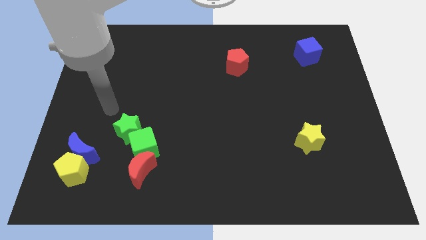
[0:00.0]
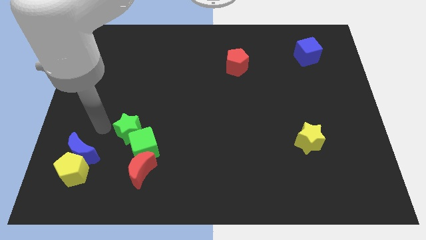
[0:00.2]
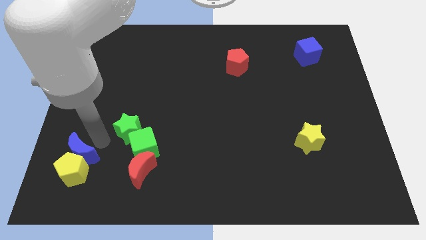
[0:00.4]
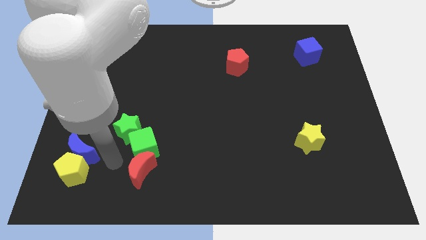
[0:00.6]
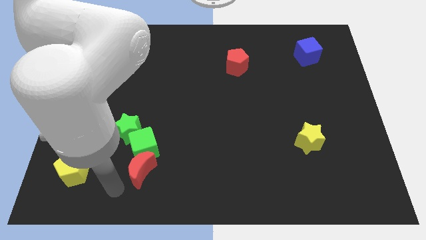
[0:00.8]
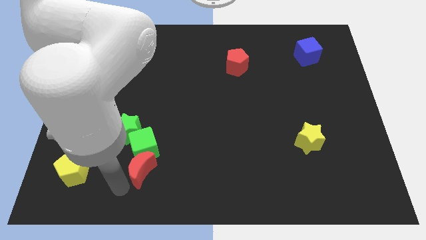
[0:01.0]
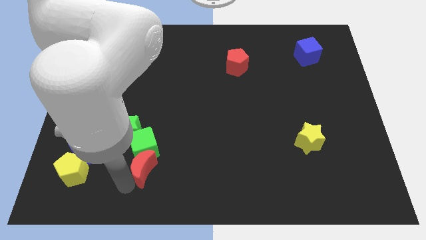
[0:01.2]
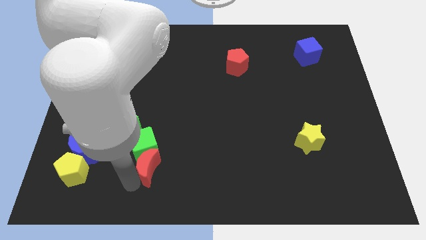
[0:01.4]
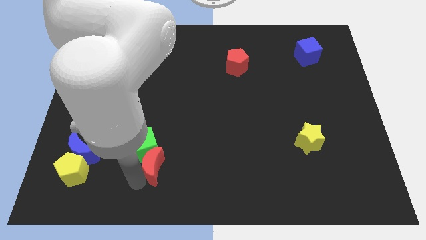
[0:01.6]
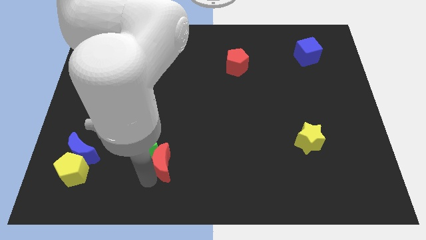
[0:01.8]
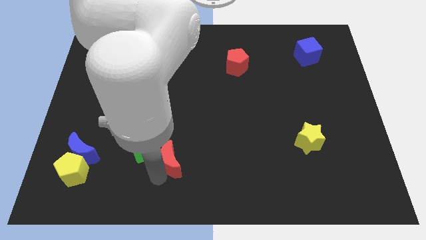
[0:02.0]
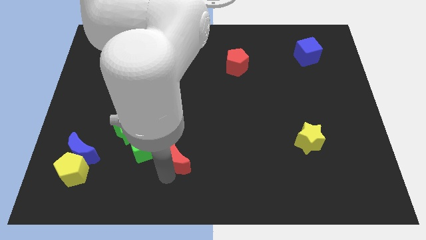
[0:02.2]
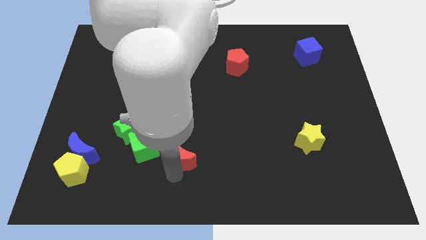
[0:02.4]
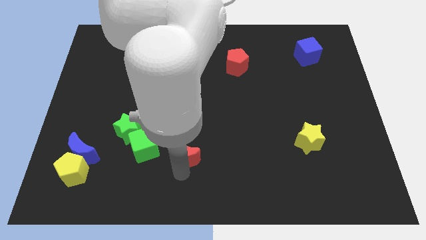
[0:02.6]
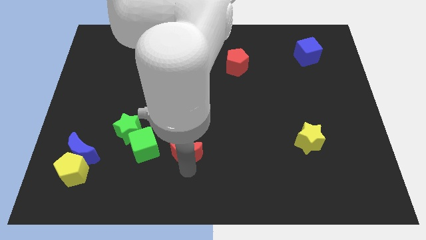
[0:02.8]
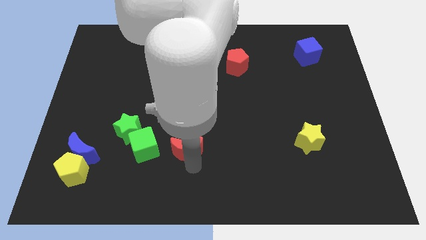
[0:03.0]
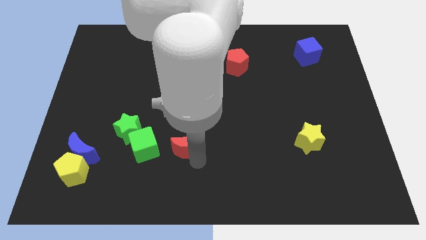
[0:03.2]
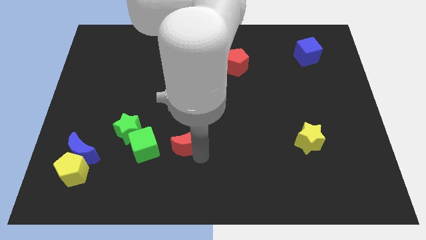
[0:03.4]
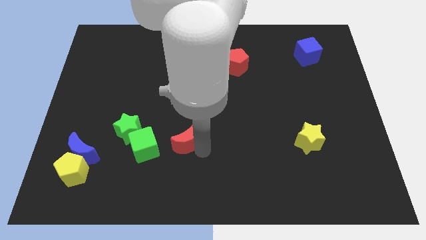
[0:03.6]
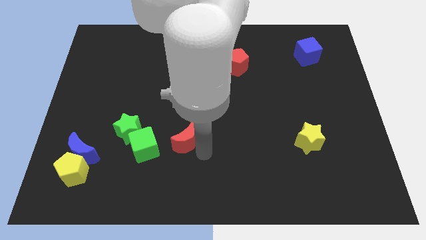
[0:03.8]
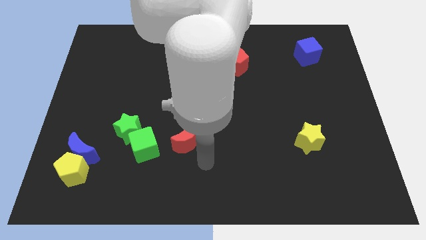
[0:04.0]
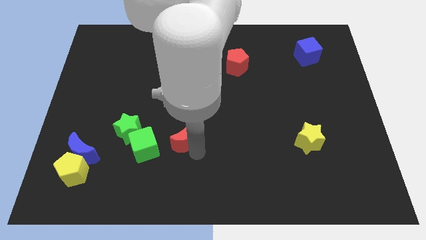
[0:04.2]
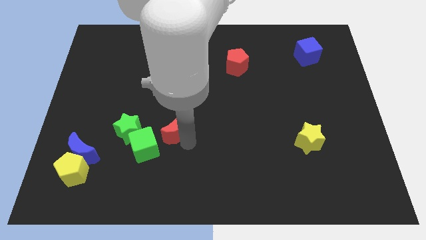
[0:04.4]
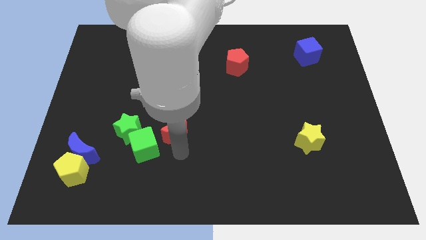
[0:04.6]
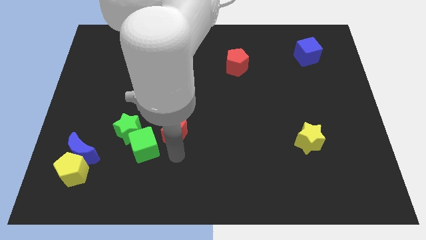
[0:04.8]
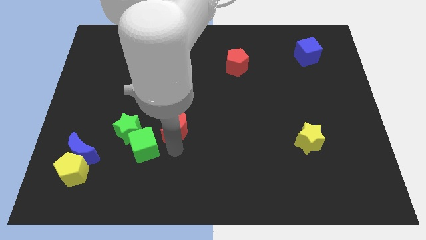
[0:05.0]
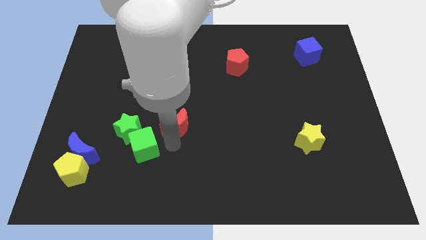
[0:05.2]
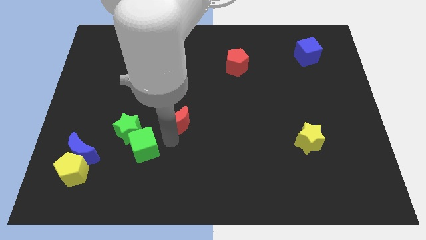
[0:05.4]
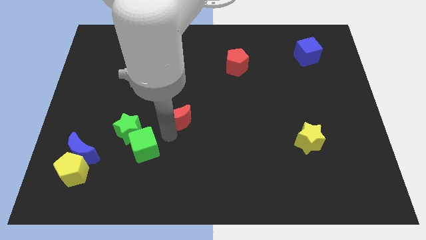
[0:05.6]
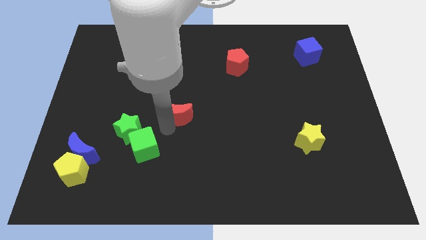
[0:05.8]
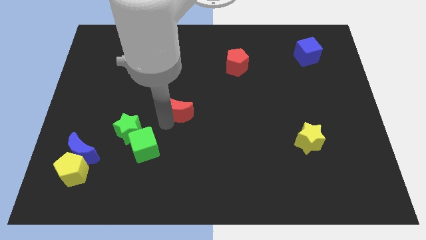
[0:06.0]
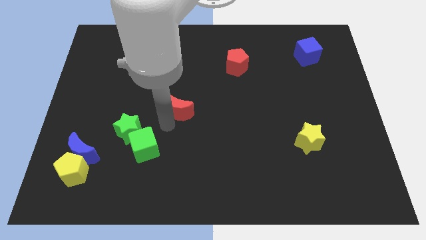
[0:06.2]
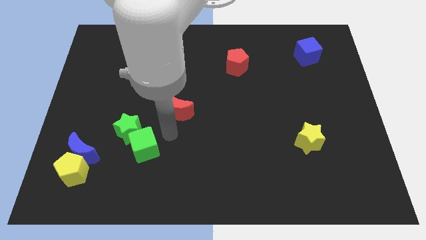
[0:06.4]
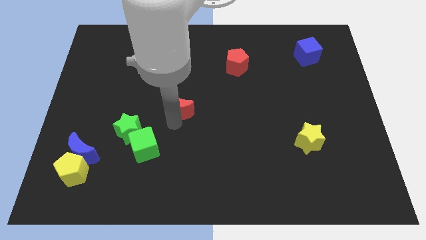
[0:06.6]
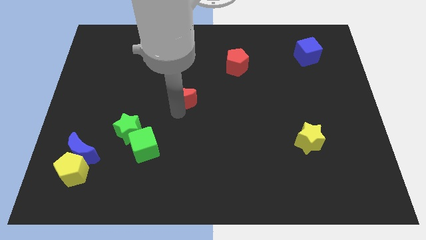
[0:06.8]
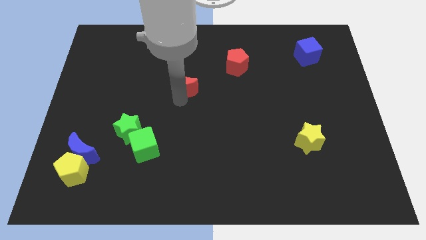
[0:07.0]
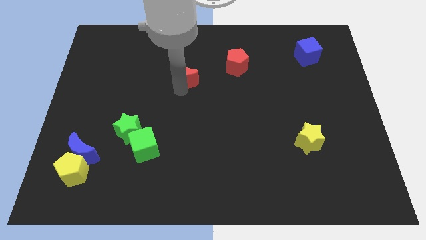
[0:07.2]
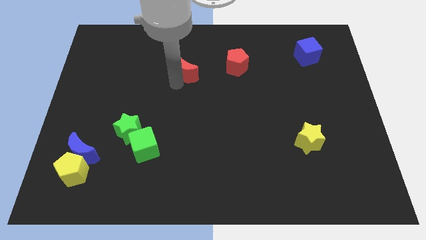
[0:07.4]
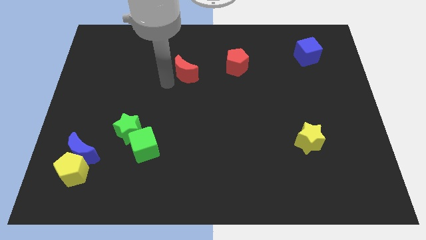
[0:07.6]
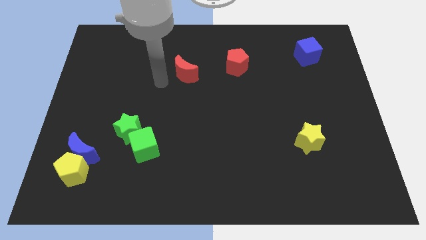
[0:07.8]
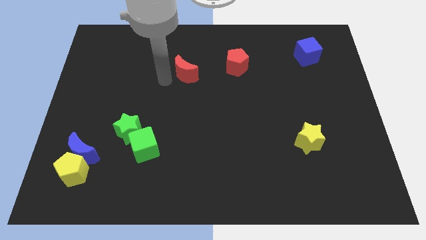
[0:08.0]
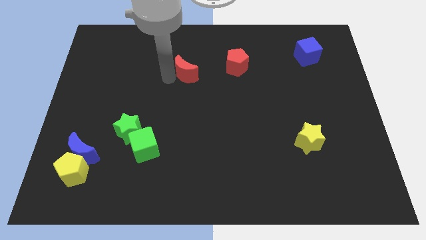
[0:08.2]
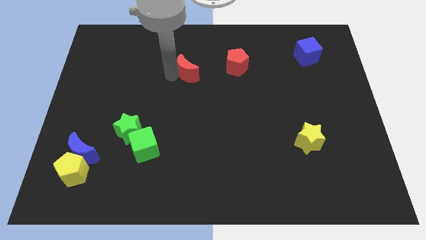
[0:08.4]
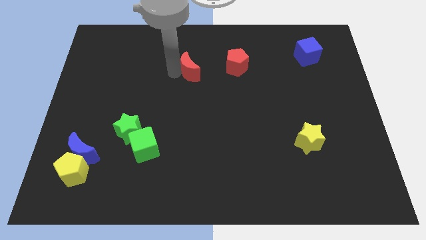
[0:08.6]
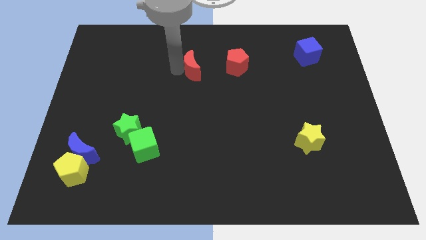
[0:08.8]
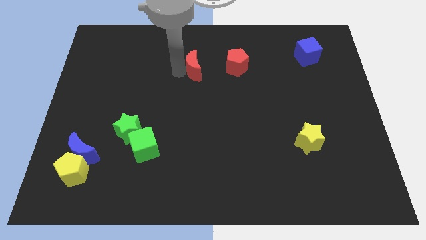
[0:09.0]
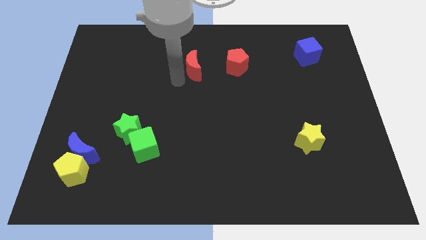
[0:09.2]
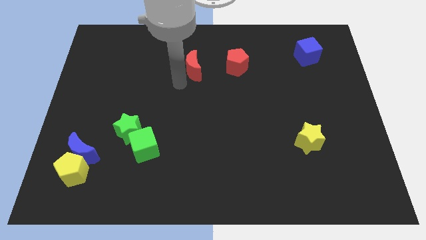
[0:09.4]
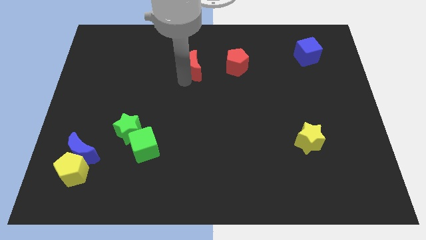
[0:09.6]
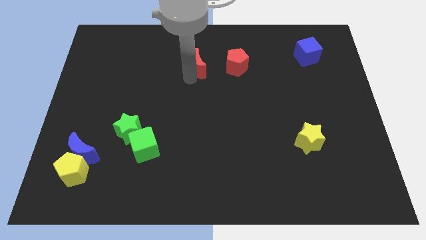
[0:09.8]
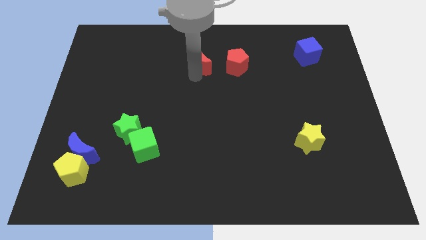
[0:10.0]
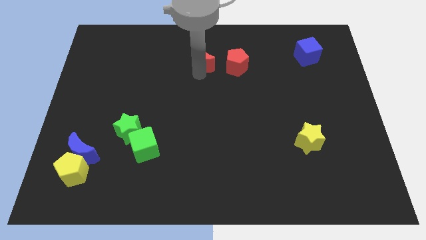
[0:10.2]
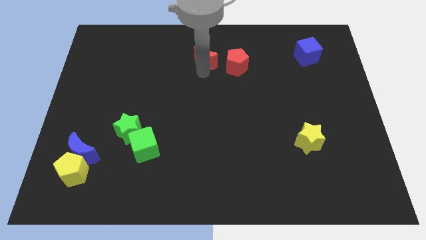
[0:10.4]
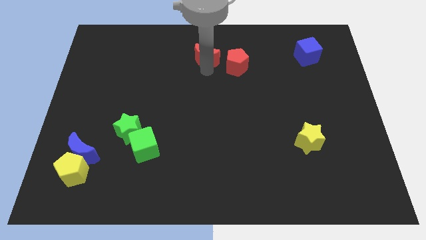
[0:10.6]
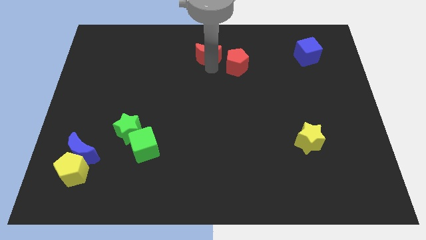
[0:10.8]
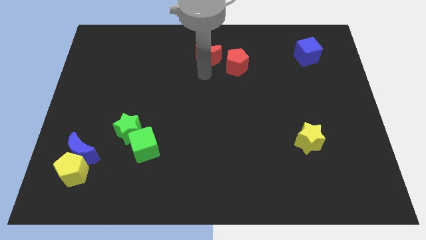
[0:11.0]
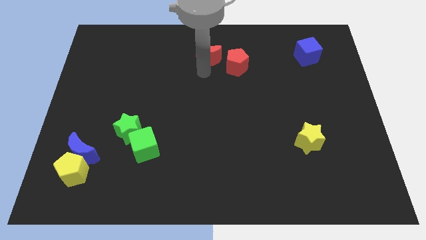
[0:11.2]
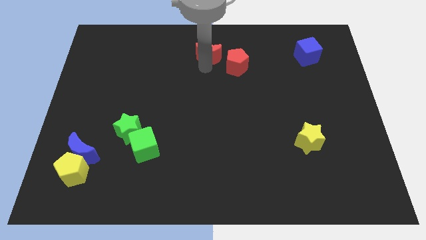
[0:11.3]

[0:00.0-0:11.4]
move the red moon to the top side

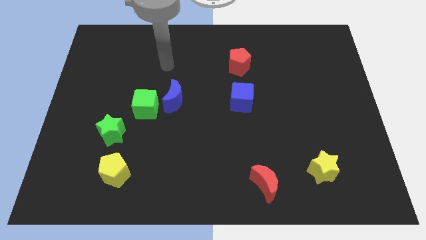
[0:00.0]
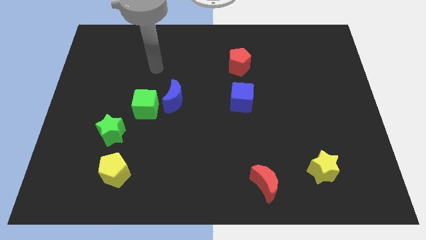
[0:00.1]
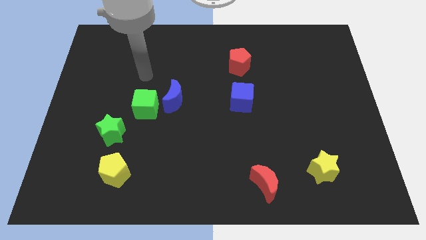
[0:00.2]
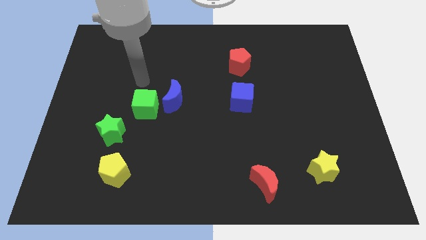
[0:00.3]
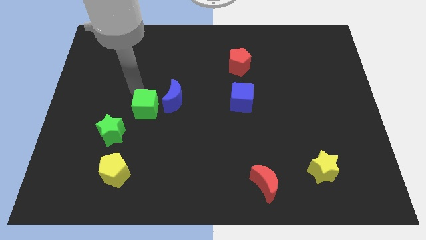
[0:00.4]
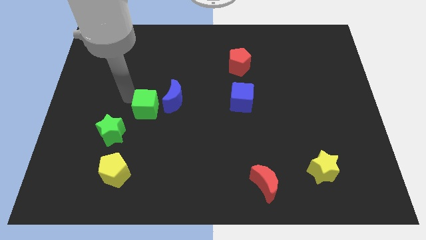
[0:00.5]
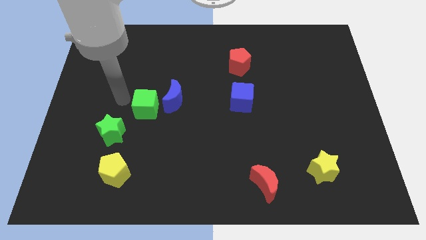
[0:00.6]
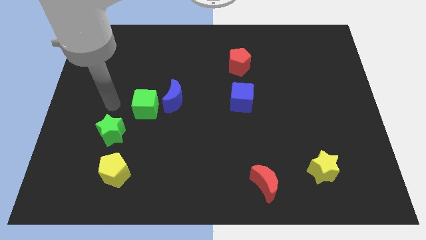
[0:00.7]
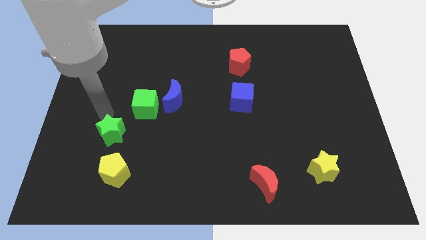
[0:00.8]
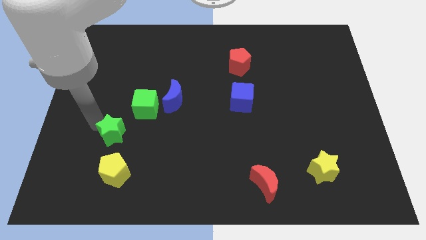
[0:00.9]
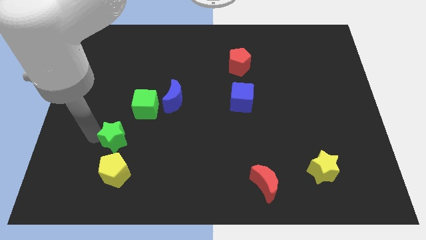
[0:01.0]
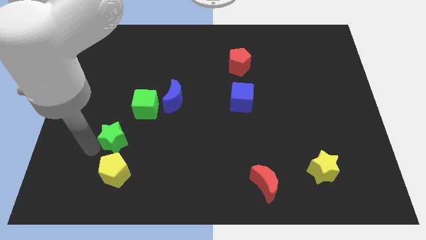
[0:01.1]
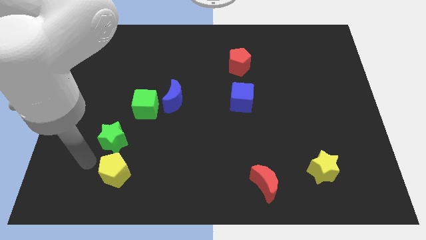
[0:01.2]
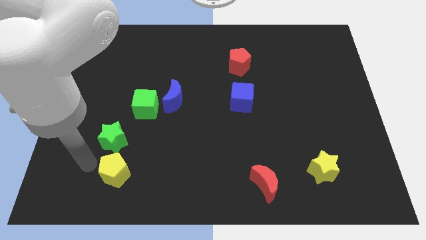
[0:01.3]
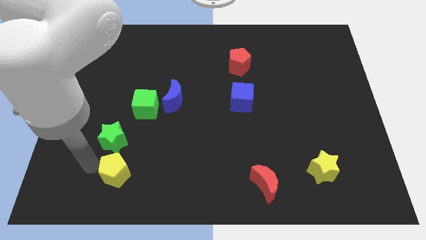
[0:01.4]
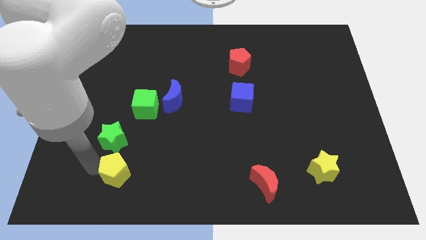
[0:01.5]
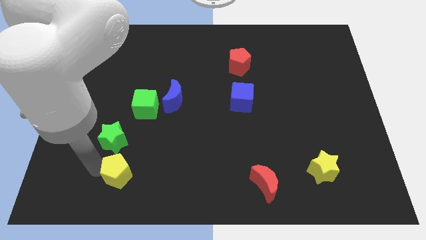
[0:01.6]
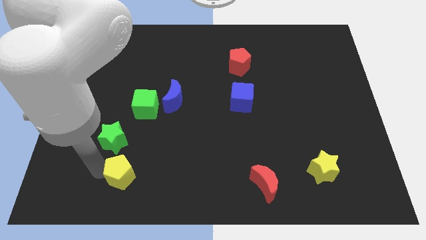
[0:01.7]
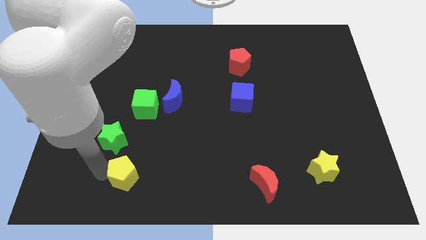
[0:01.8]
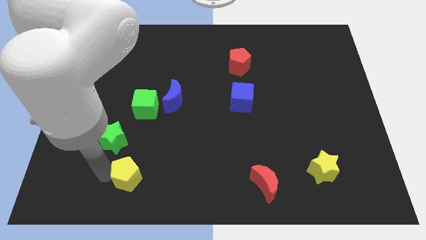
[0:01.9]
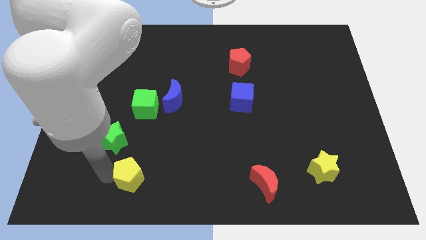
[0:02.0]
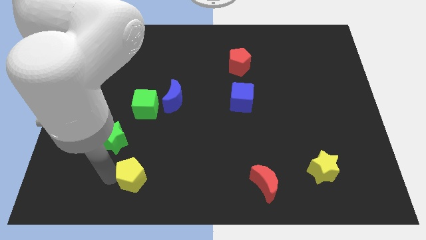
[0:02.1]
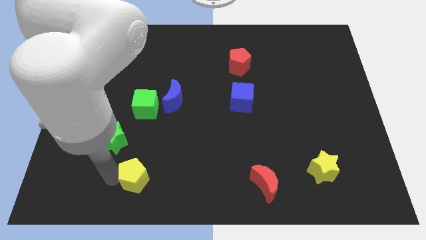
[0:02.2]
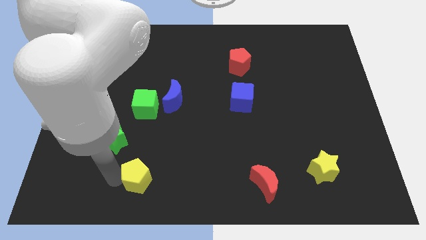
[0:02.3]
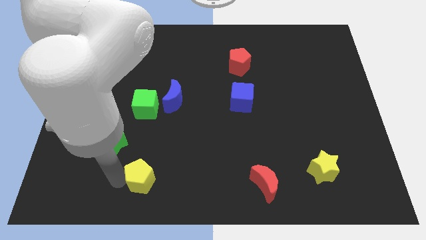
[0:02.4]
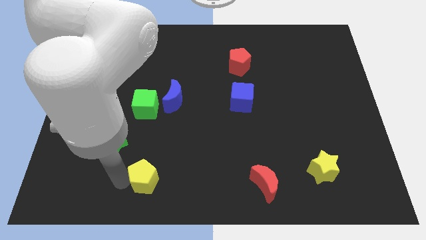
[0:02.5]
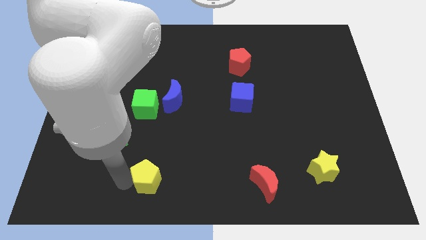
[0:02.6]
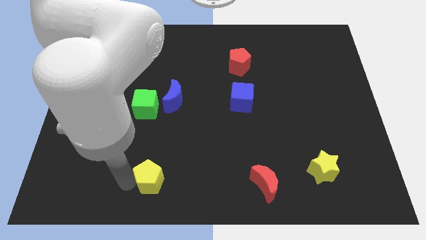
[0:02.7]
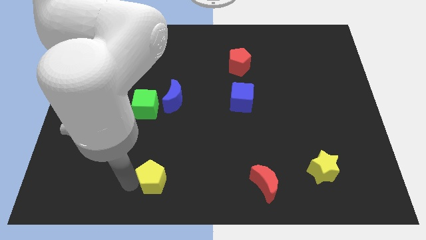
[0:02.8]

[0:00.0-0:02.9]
push the yellow pentagon to the bottom side
